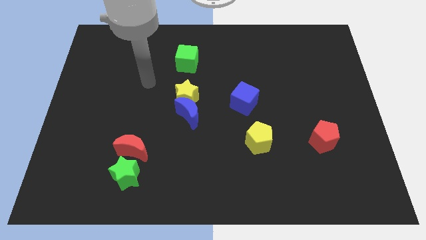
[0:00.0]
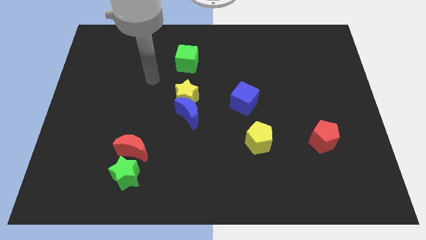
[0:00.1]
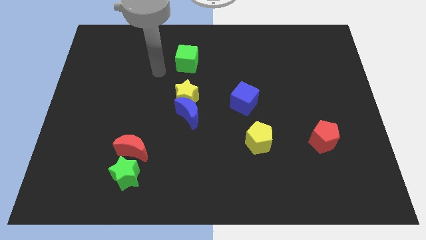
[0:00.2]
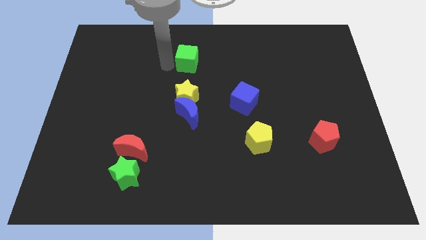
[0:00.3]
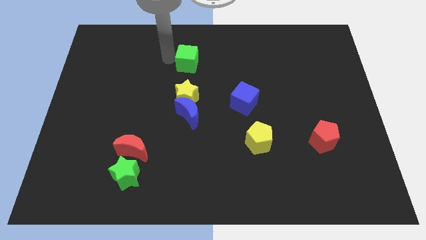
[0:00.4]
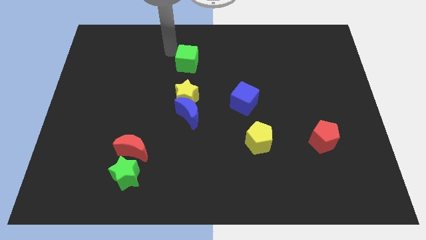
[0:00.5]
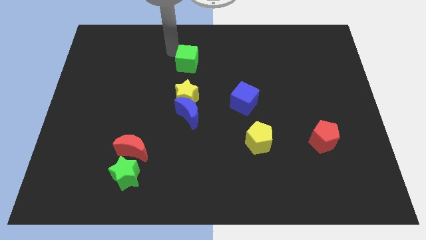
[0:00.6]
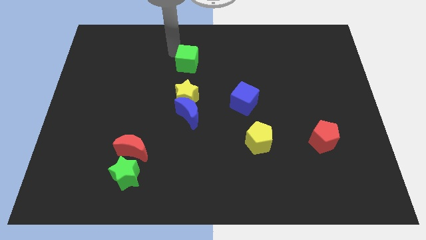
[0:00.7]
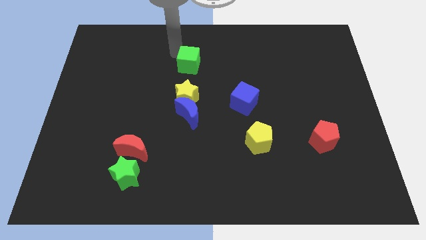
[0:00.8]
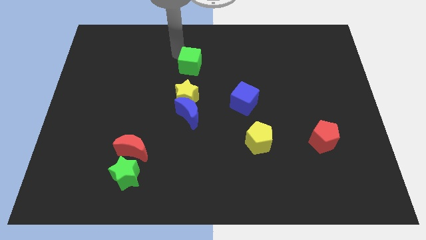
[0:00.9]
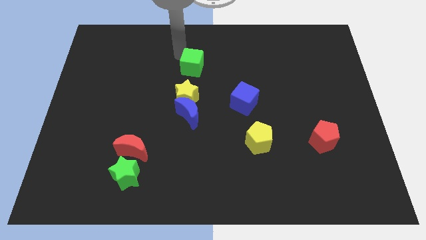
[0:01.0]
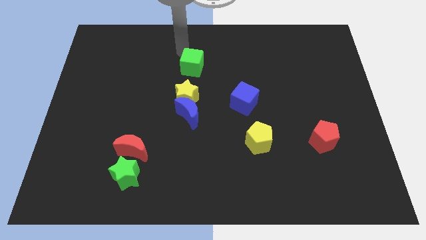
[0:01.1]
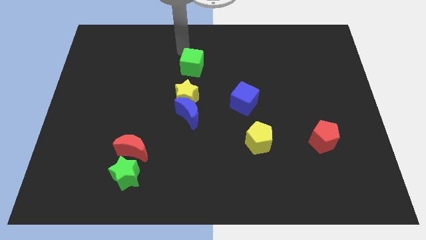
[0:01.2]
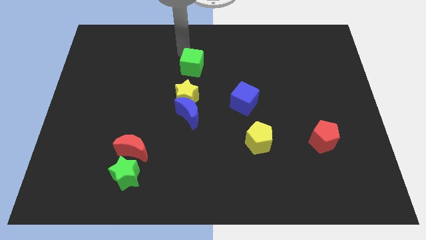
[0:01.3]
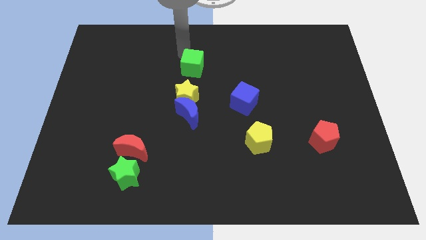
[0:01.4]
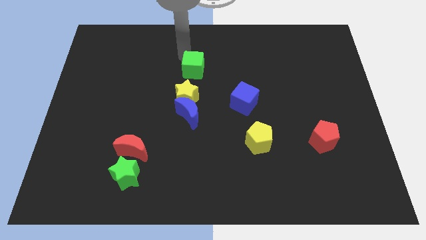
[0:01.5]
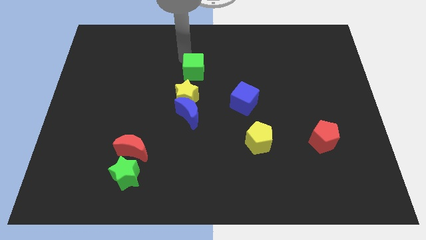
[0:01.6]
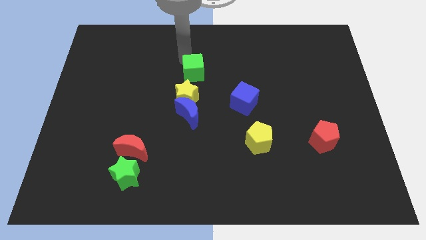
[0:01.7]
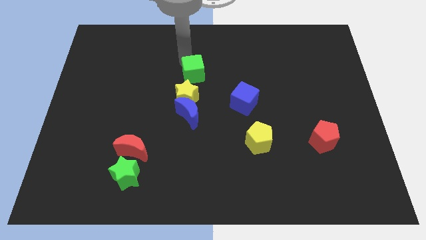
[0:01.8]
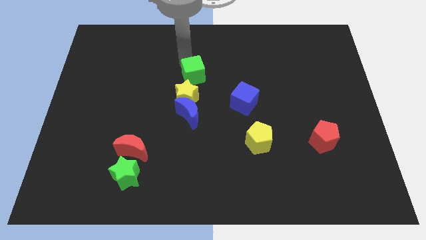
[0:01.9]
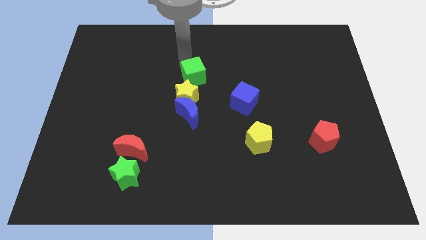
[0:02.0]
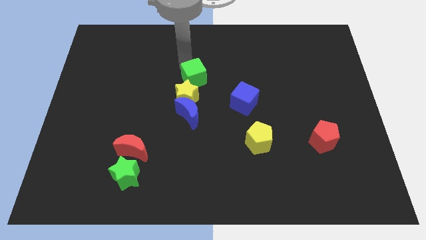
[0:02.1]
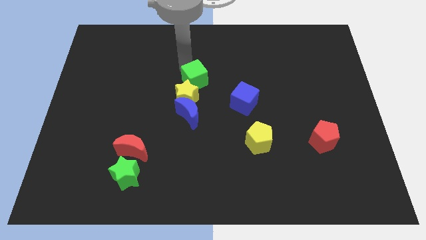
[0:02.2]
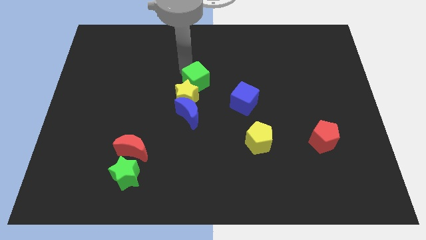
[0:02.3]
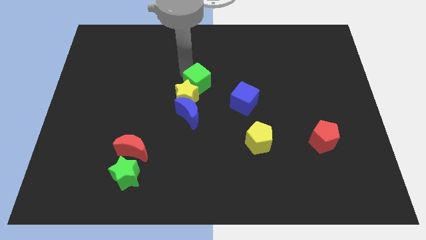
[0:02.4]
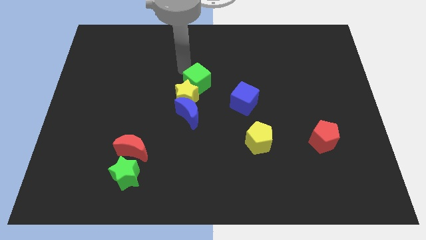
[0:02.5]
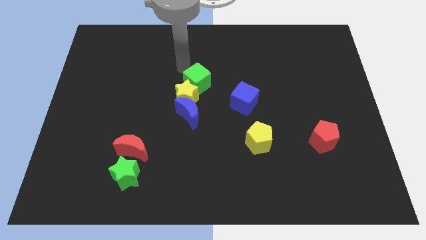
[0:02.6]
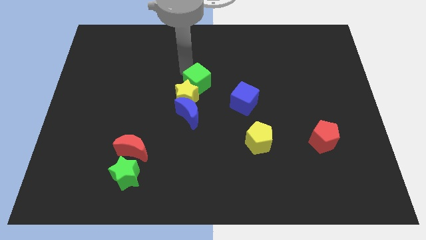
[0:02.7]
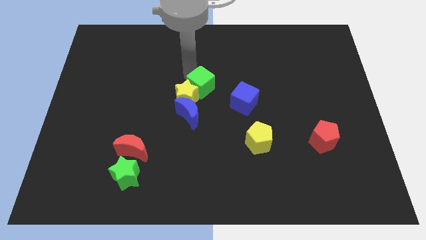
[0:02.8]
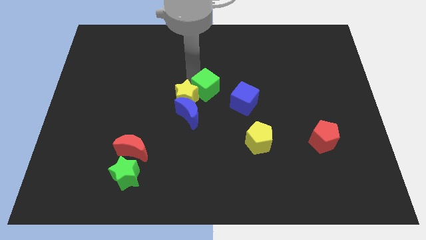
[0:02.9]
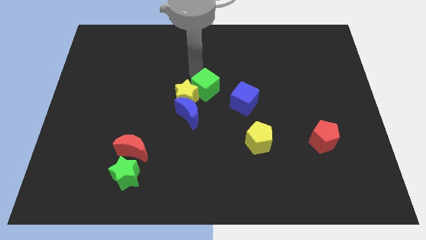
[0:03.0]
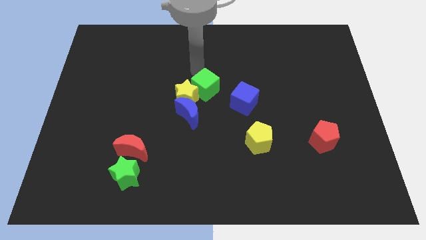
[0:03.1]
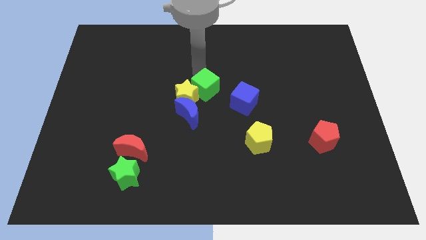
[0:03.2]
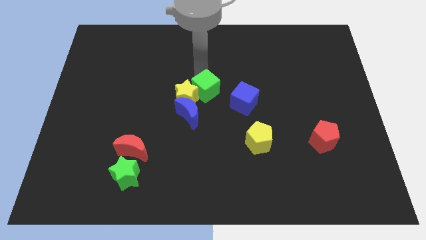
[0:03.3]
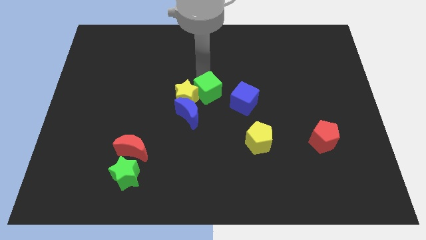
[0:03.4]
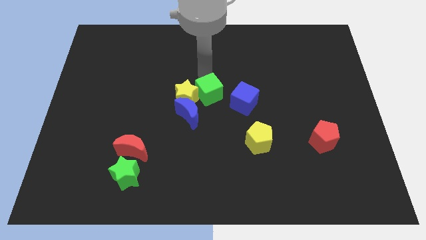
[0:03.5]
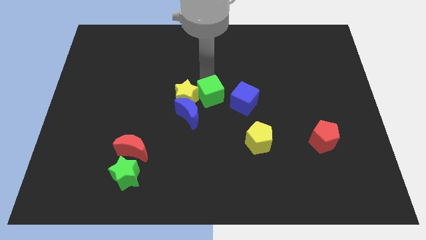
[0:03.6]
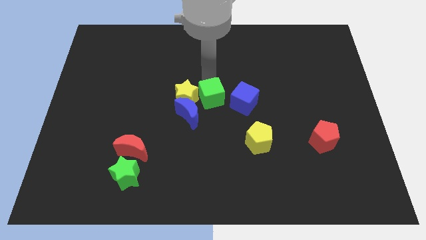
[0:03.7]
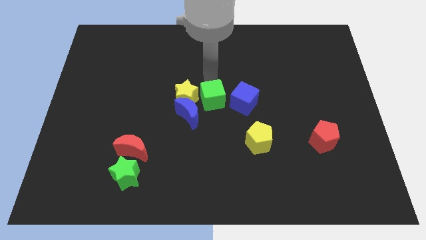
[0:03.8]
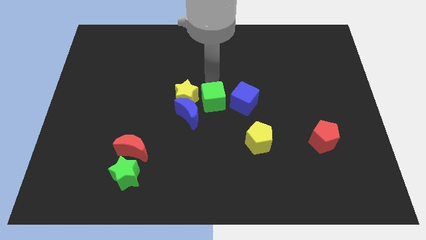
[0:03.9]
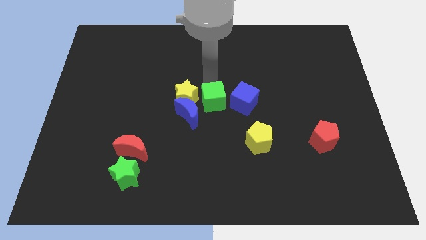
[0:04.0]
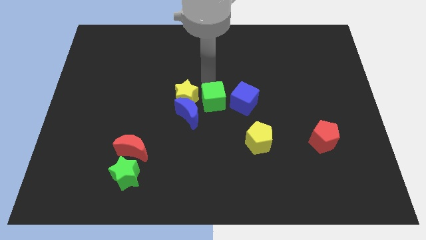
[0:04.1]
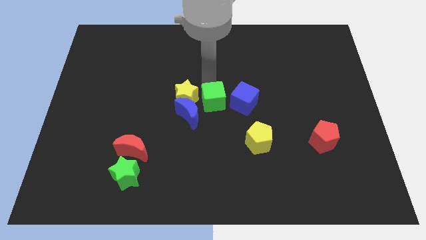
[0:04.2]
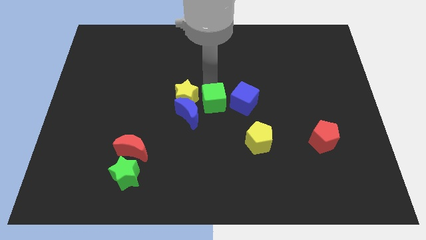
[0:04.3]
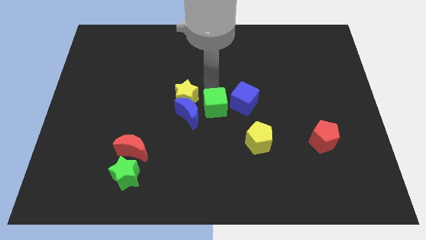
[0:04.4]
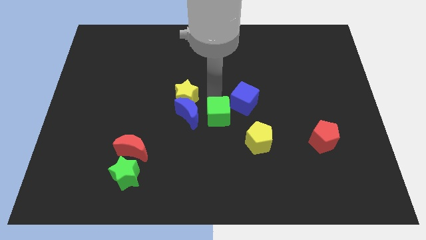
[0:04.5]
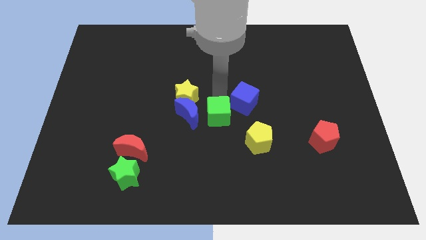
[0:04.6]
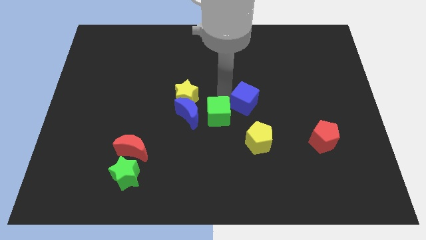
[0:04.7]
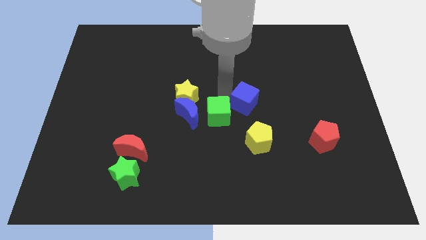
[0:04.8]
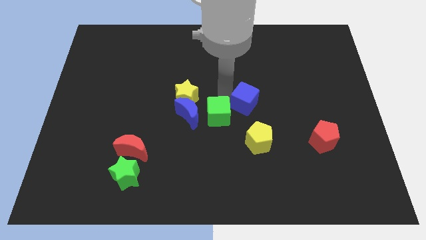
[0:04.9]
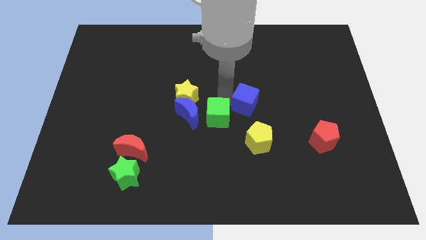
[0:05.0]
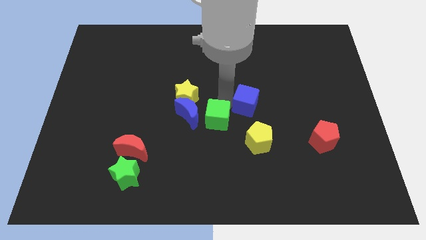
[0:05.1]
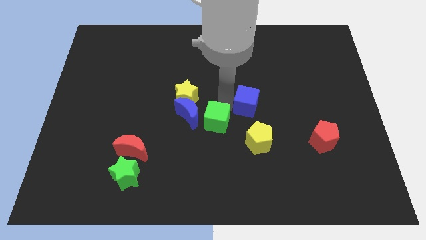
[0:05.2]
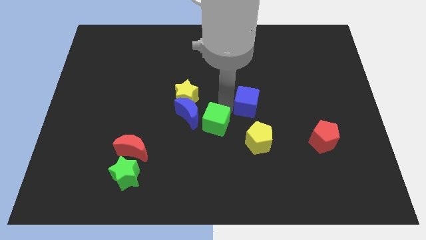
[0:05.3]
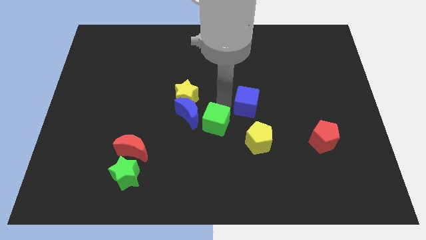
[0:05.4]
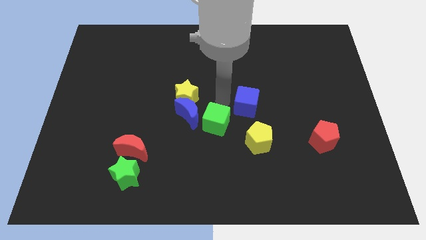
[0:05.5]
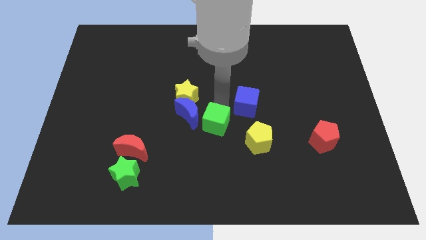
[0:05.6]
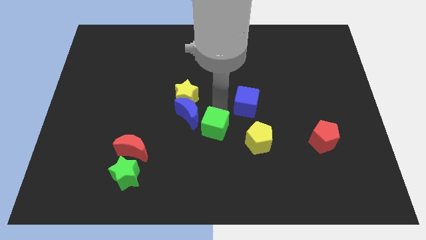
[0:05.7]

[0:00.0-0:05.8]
put the green cube to the left side of the yellow pentagon

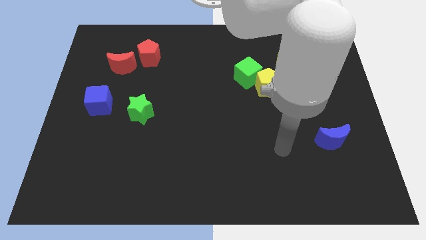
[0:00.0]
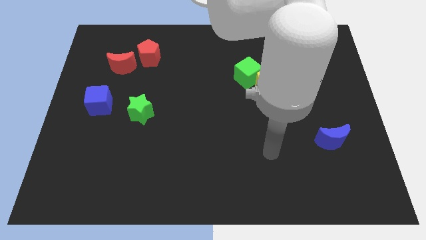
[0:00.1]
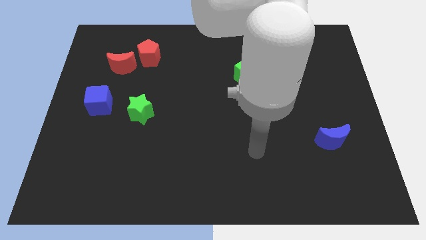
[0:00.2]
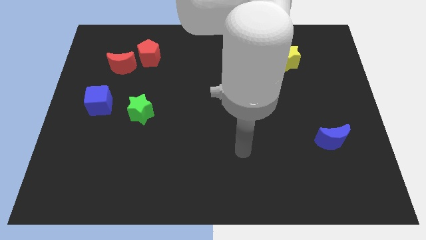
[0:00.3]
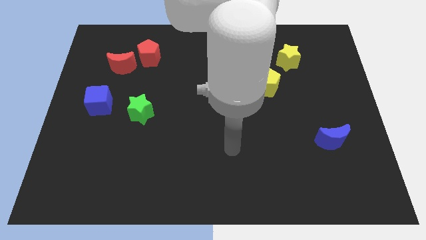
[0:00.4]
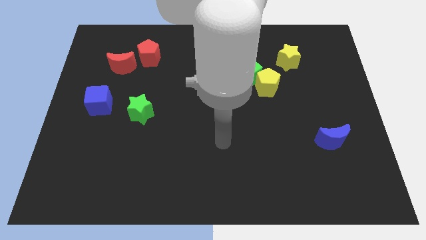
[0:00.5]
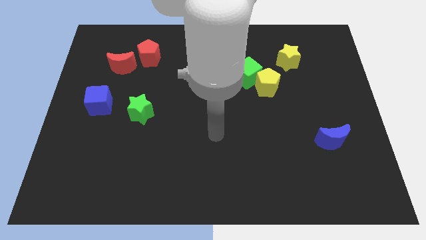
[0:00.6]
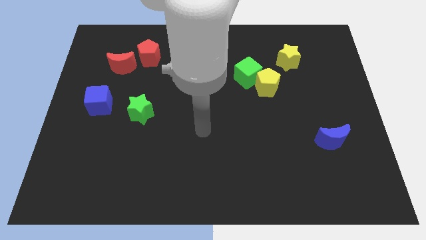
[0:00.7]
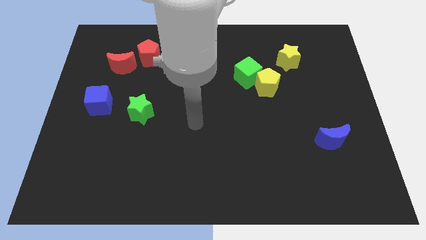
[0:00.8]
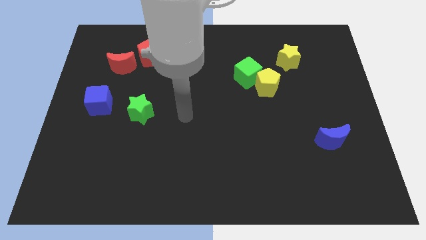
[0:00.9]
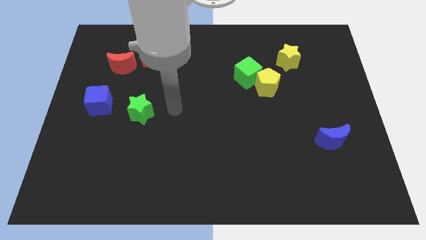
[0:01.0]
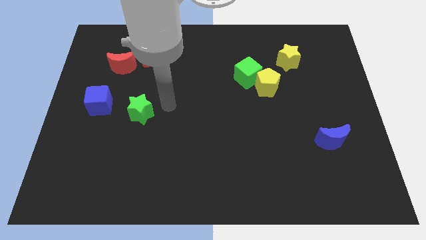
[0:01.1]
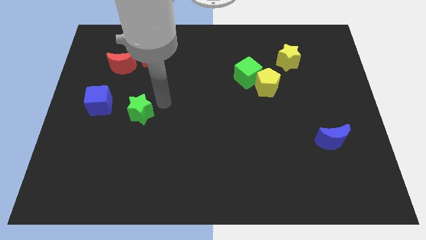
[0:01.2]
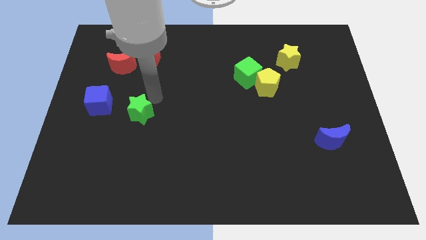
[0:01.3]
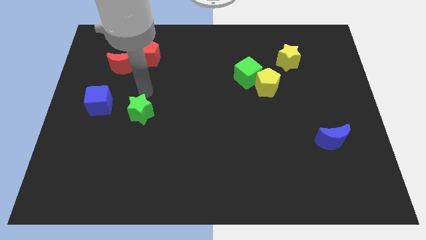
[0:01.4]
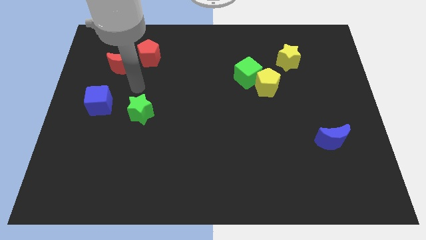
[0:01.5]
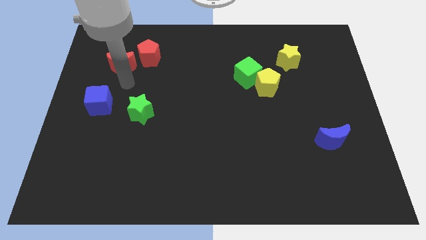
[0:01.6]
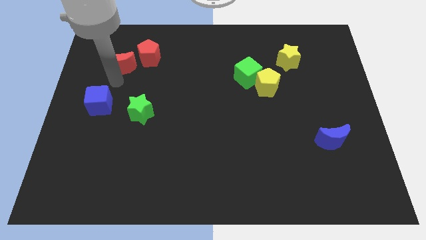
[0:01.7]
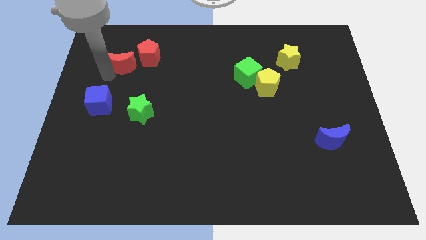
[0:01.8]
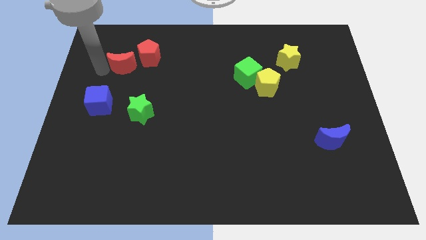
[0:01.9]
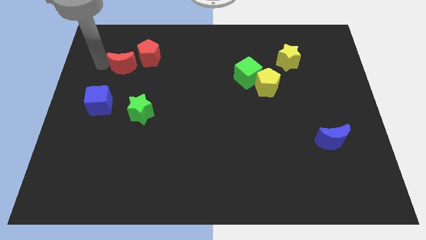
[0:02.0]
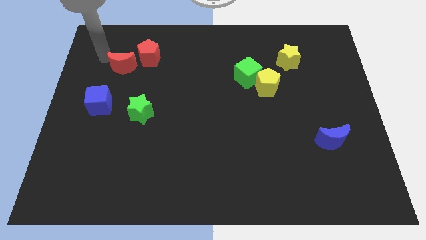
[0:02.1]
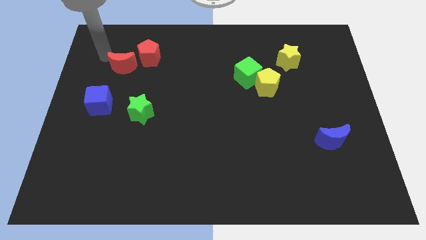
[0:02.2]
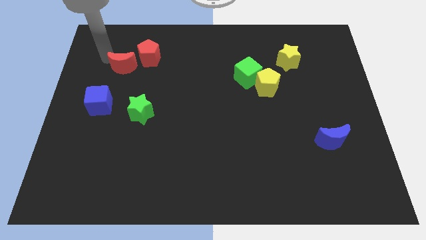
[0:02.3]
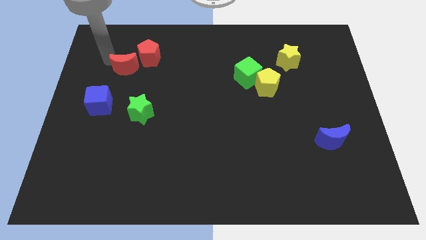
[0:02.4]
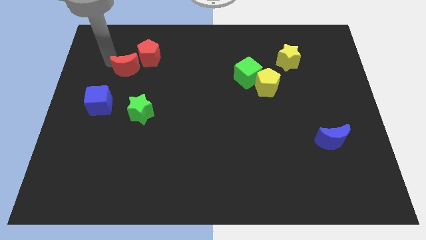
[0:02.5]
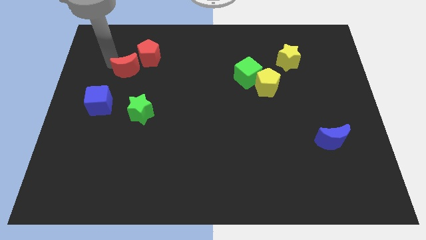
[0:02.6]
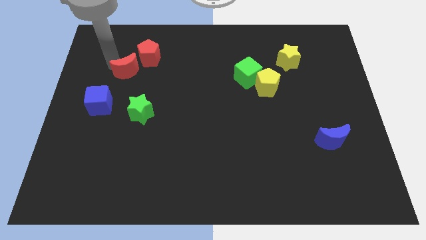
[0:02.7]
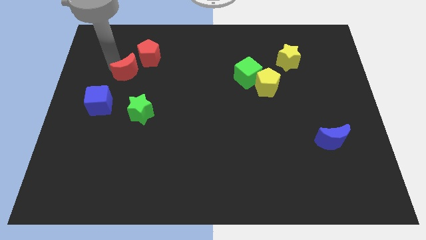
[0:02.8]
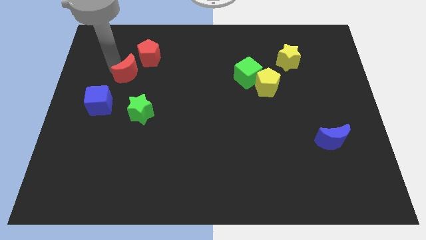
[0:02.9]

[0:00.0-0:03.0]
put the red moon above the green star
